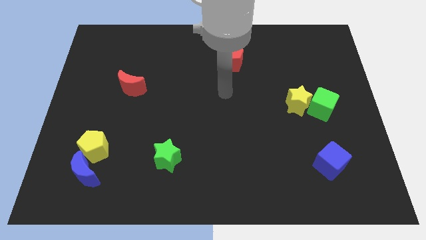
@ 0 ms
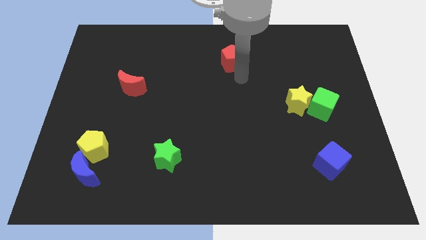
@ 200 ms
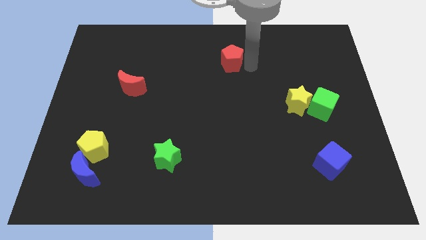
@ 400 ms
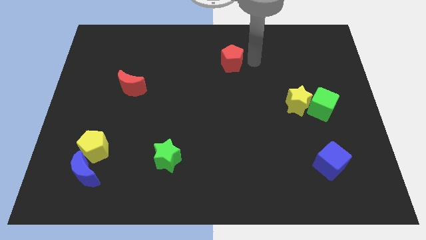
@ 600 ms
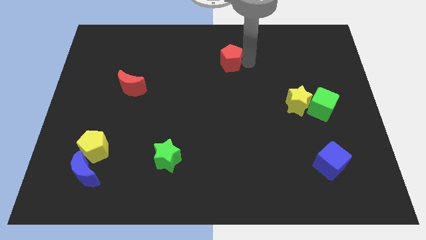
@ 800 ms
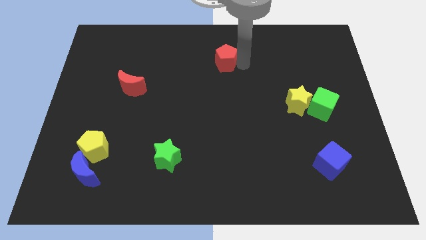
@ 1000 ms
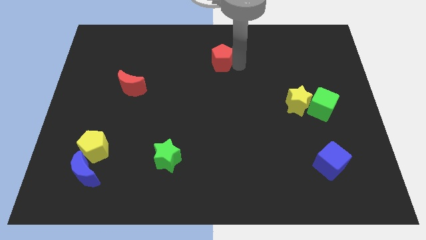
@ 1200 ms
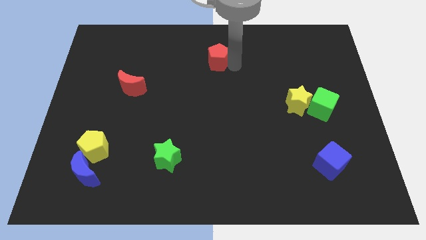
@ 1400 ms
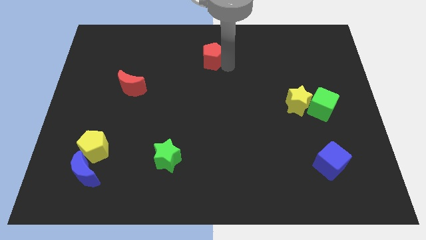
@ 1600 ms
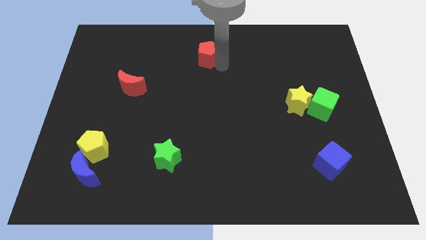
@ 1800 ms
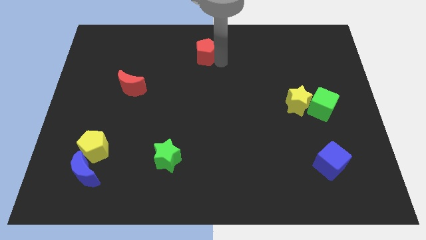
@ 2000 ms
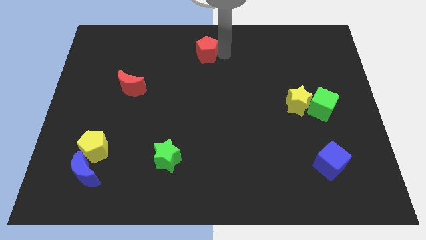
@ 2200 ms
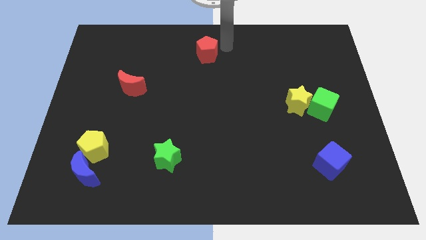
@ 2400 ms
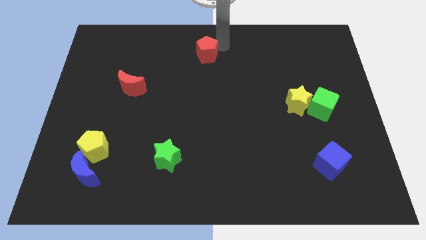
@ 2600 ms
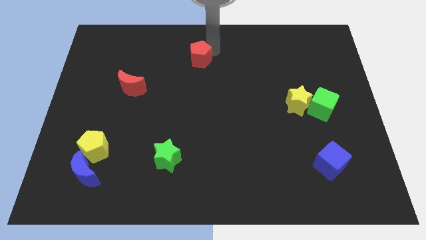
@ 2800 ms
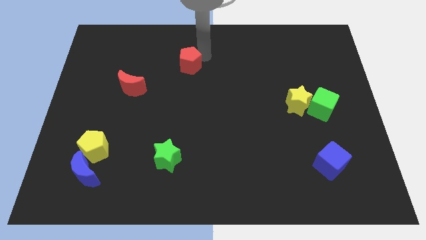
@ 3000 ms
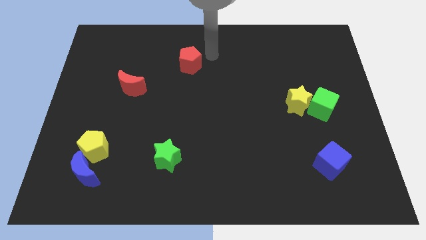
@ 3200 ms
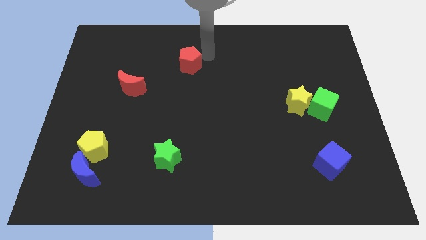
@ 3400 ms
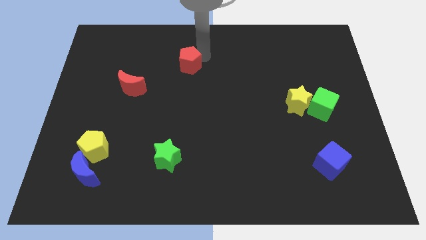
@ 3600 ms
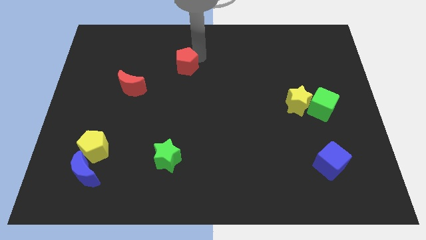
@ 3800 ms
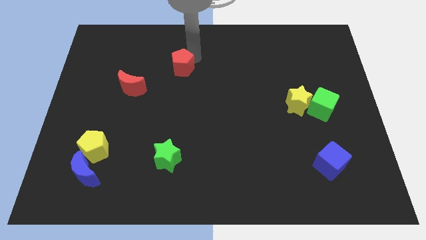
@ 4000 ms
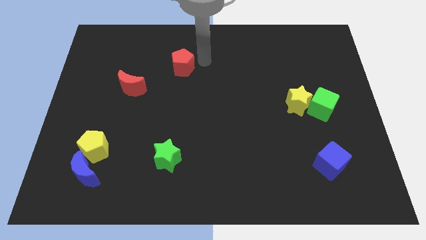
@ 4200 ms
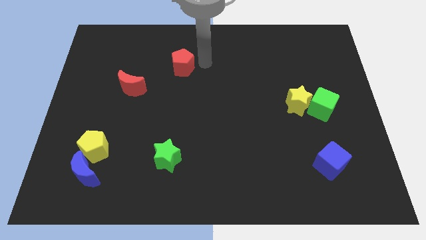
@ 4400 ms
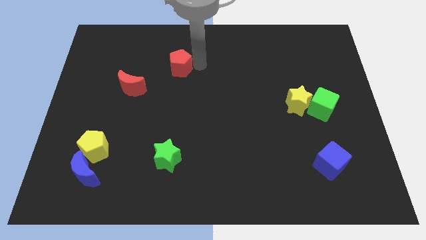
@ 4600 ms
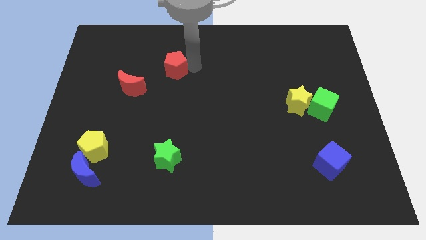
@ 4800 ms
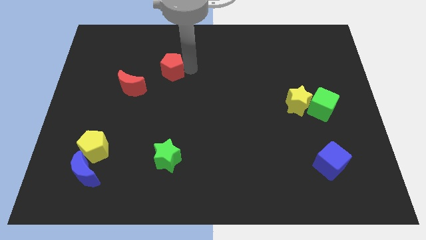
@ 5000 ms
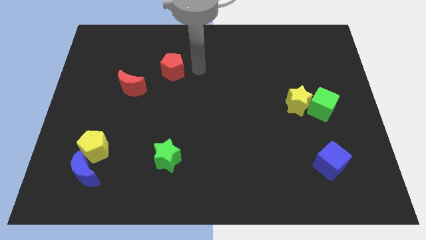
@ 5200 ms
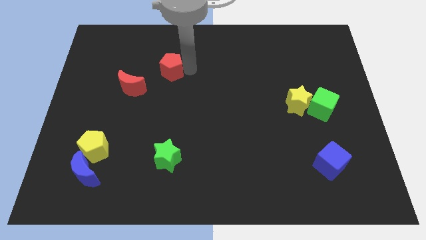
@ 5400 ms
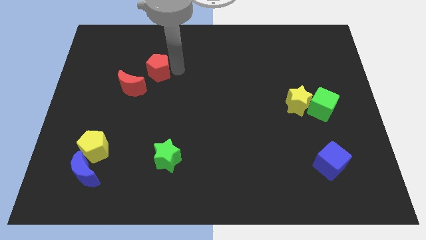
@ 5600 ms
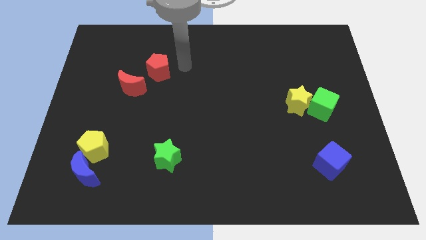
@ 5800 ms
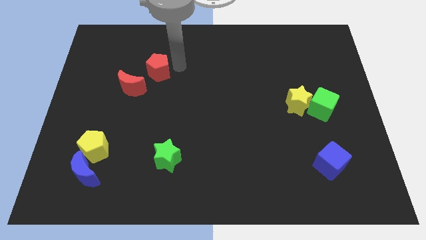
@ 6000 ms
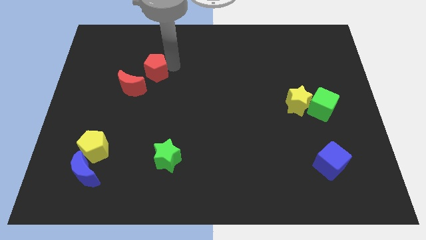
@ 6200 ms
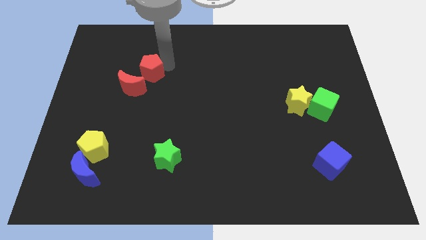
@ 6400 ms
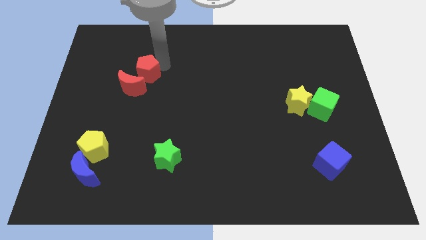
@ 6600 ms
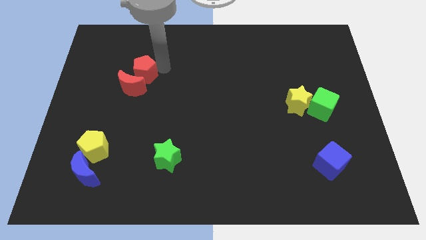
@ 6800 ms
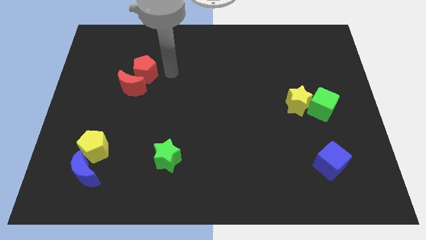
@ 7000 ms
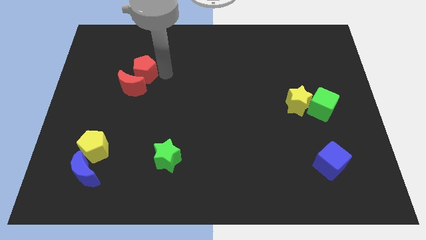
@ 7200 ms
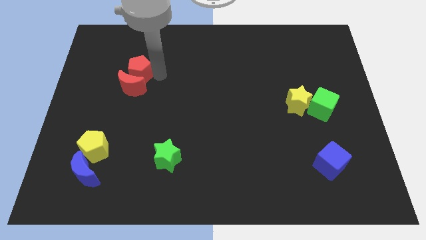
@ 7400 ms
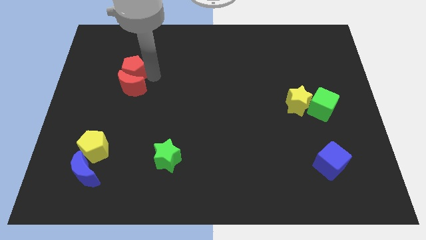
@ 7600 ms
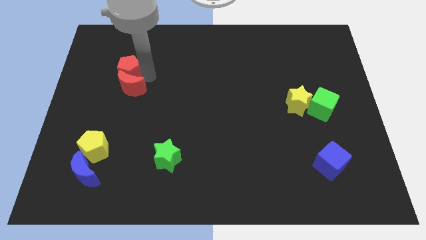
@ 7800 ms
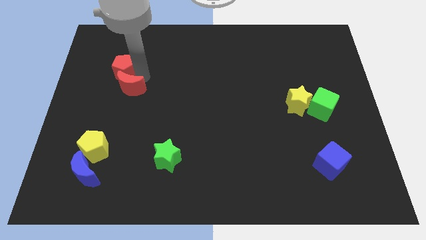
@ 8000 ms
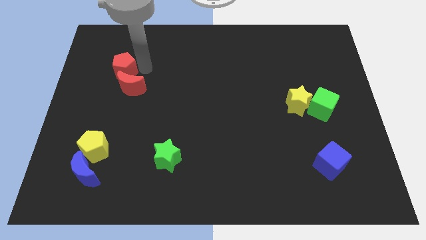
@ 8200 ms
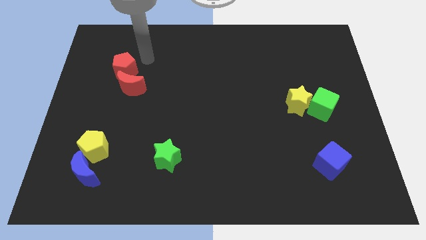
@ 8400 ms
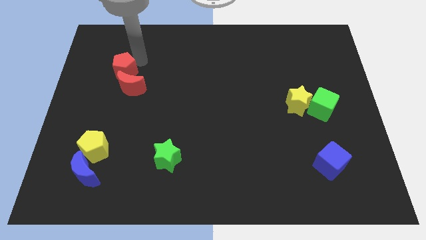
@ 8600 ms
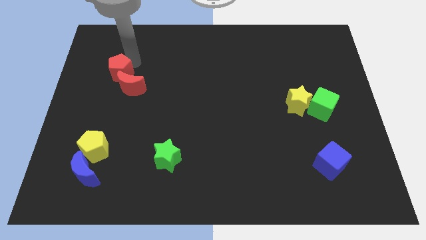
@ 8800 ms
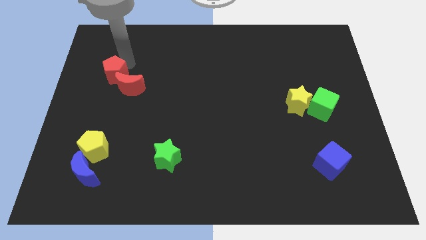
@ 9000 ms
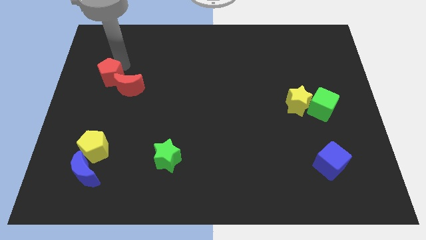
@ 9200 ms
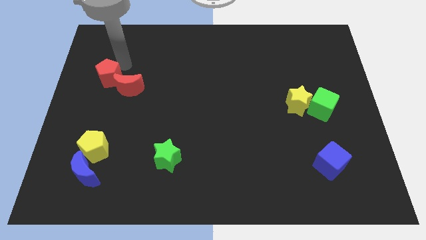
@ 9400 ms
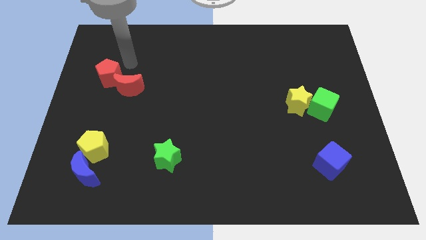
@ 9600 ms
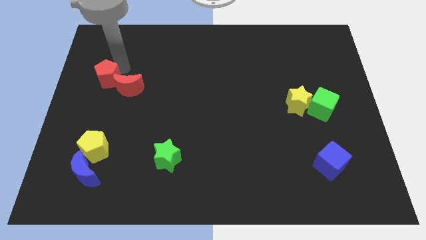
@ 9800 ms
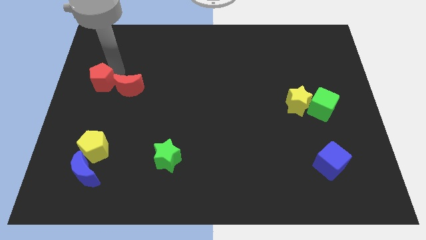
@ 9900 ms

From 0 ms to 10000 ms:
put the red pentagon to the left side of the board

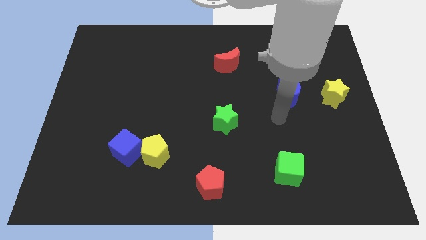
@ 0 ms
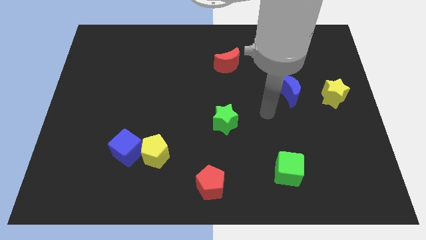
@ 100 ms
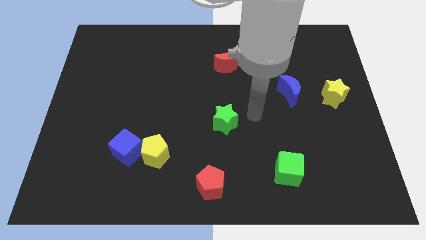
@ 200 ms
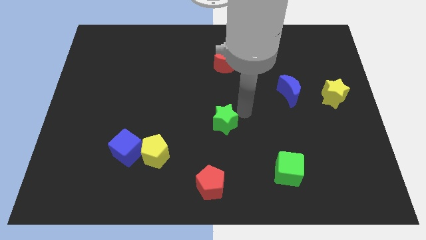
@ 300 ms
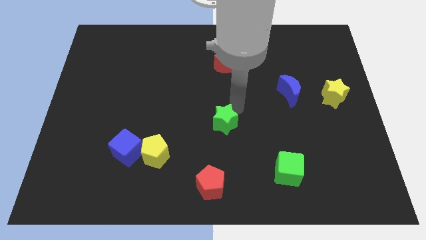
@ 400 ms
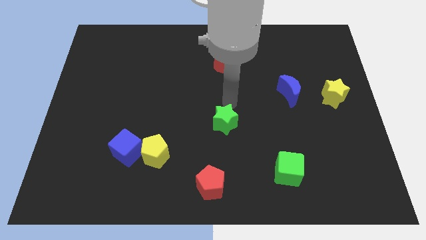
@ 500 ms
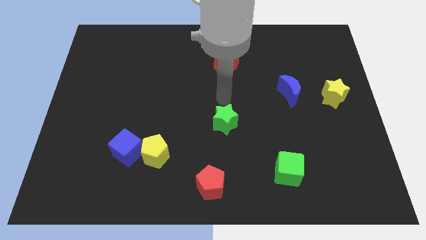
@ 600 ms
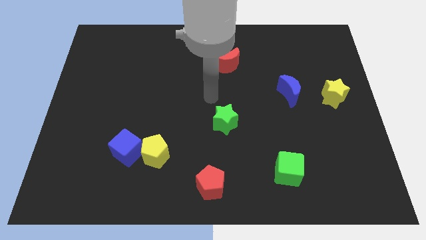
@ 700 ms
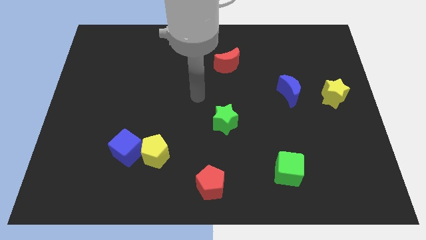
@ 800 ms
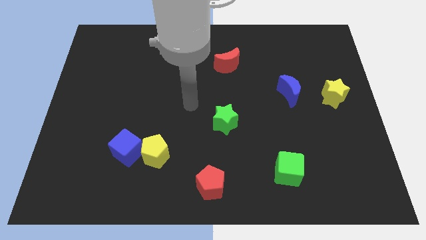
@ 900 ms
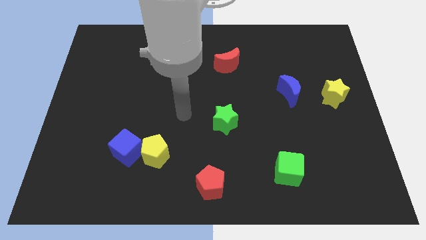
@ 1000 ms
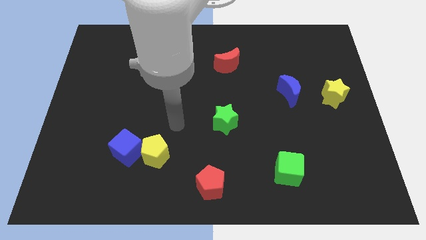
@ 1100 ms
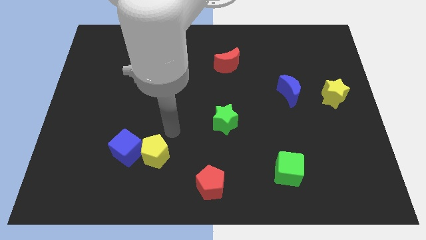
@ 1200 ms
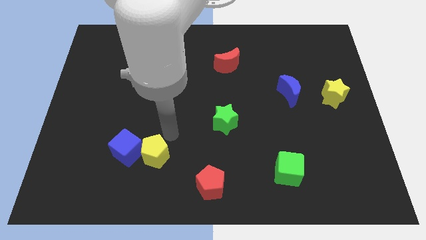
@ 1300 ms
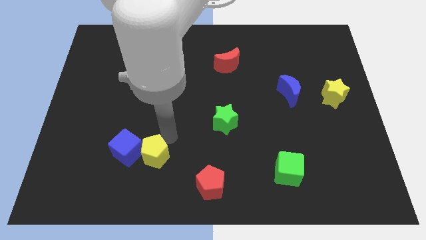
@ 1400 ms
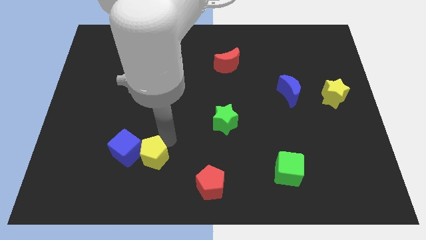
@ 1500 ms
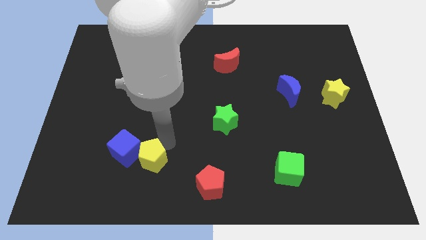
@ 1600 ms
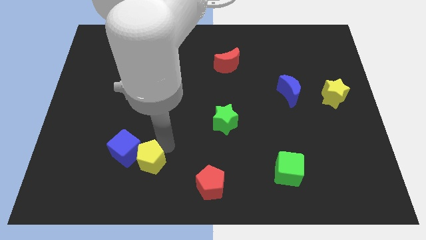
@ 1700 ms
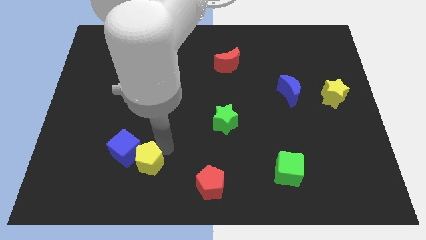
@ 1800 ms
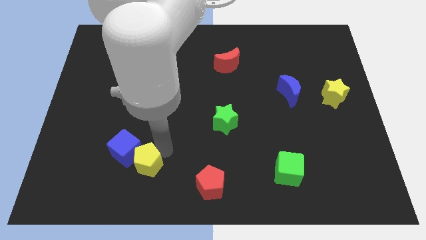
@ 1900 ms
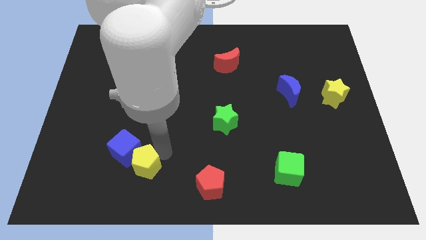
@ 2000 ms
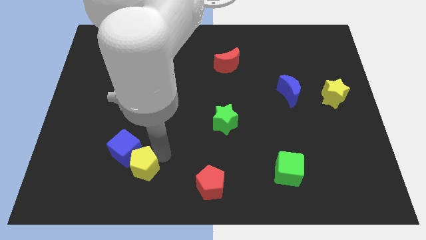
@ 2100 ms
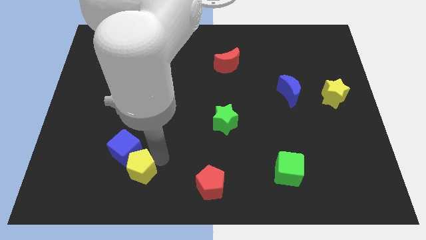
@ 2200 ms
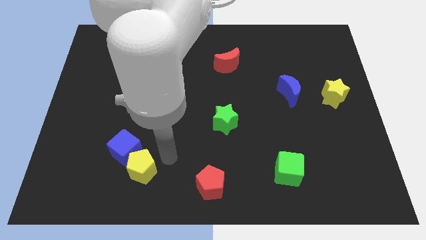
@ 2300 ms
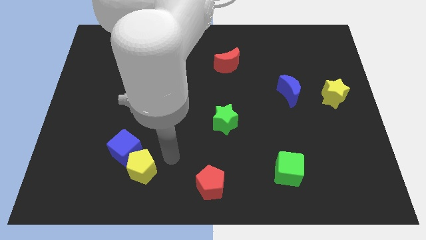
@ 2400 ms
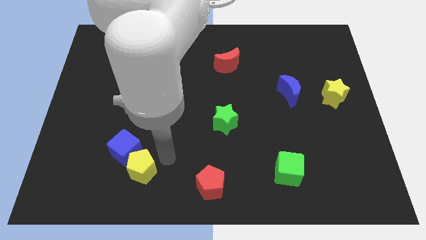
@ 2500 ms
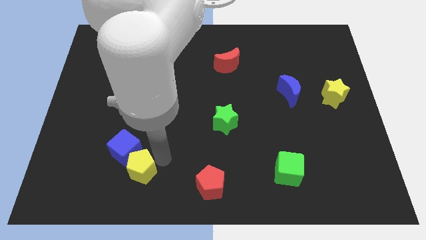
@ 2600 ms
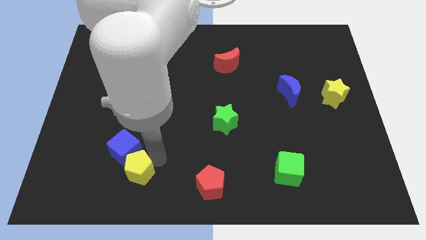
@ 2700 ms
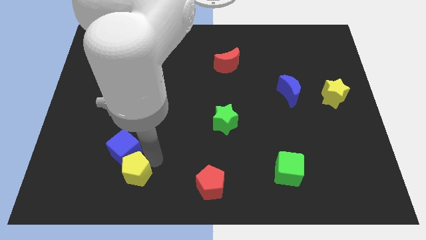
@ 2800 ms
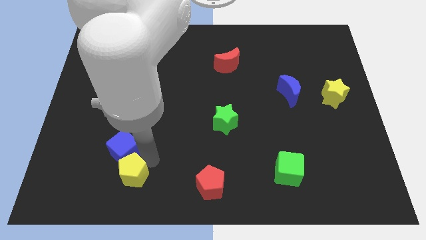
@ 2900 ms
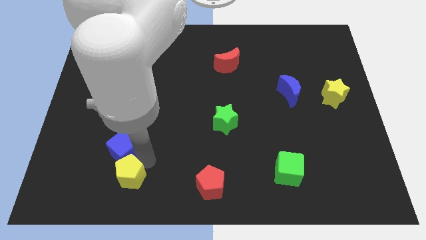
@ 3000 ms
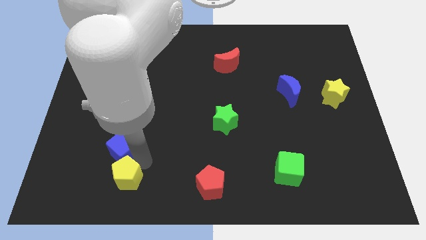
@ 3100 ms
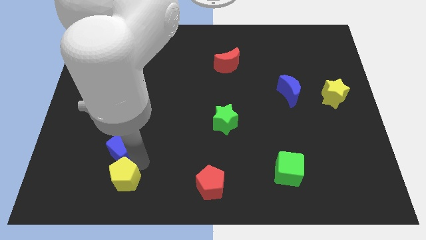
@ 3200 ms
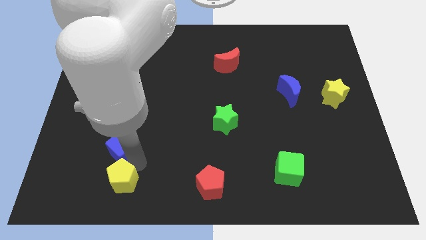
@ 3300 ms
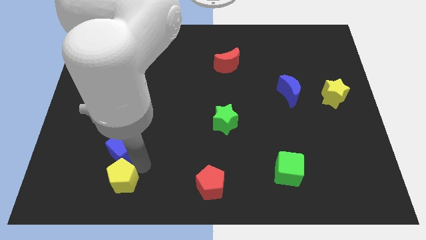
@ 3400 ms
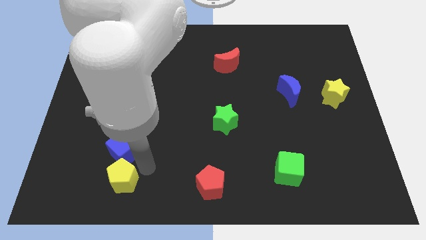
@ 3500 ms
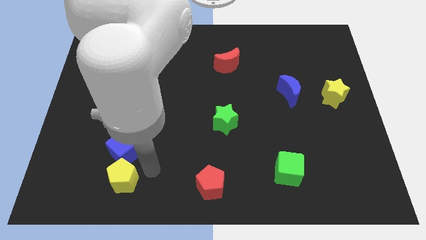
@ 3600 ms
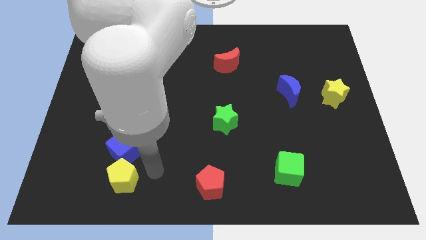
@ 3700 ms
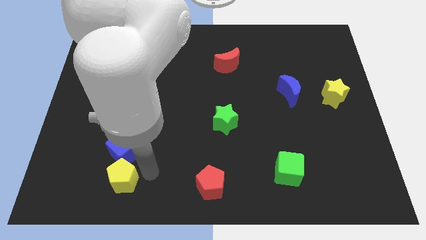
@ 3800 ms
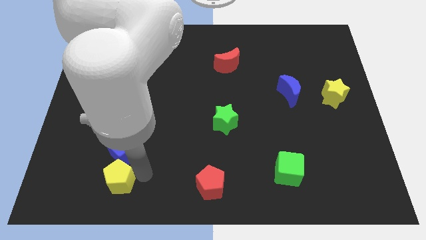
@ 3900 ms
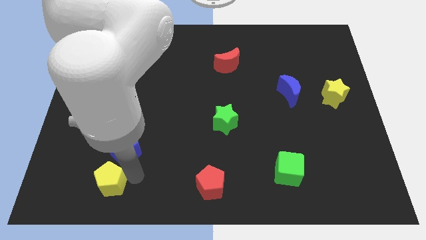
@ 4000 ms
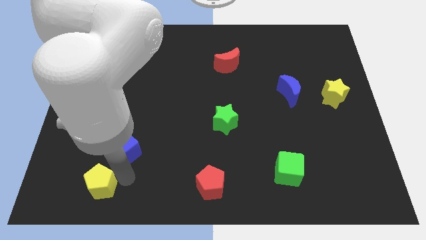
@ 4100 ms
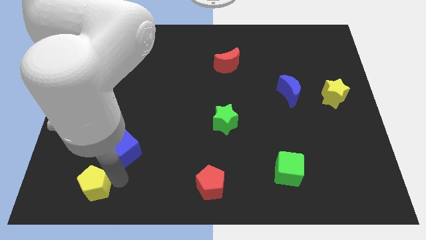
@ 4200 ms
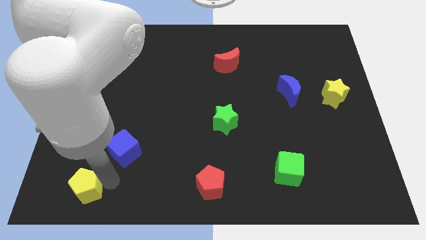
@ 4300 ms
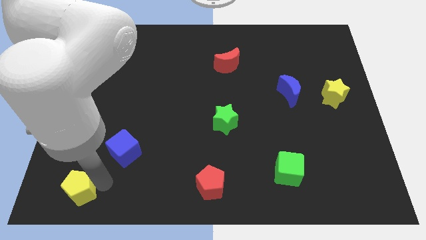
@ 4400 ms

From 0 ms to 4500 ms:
push the yellow pentagon to the lower left corner
